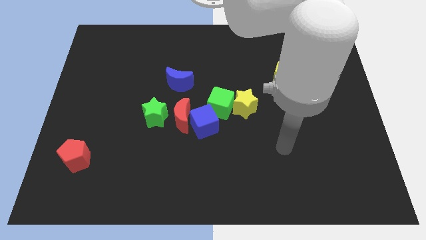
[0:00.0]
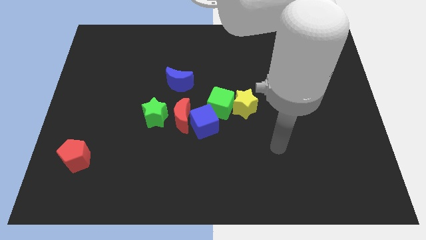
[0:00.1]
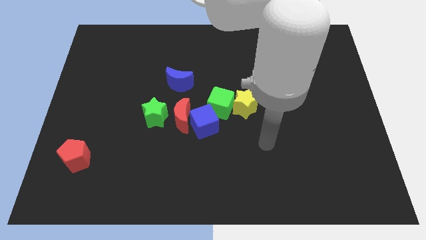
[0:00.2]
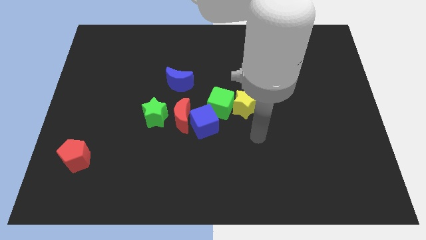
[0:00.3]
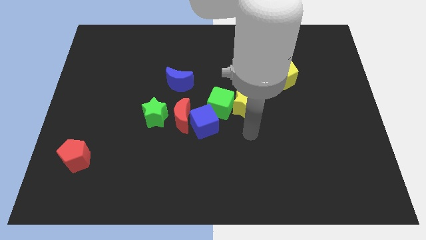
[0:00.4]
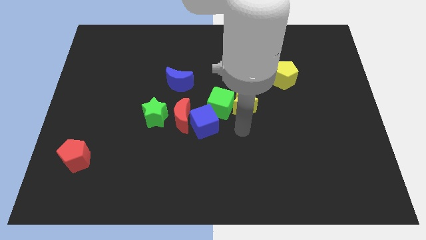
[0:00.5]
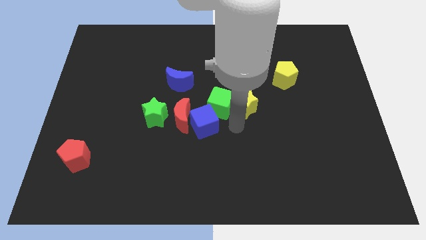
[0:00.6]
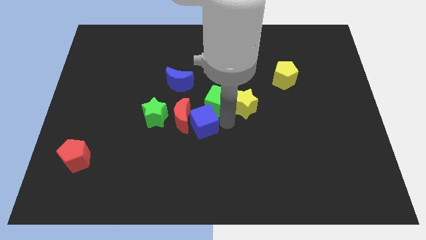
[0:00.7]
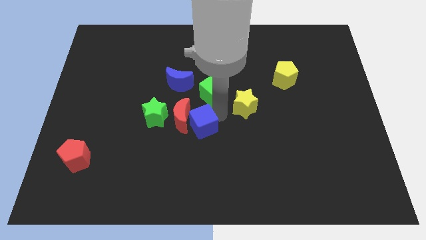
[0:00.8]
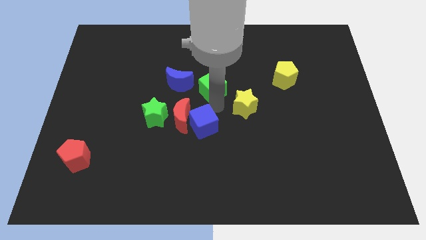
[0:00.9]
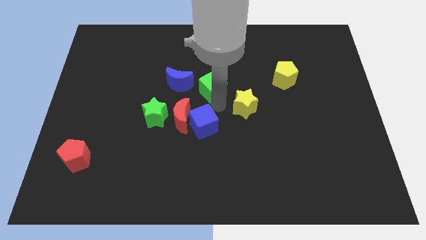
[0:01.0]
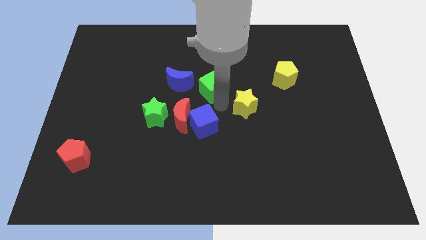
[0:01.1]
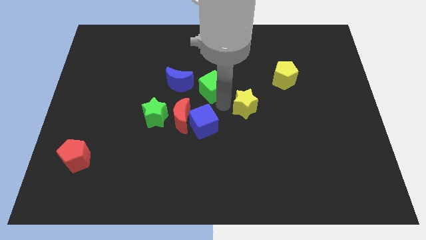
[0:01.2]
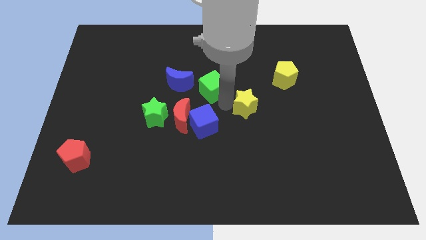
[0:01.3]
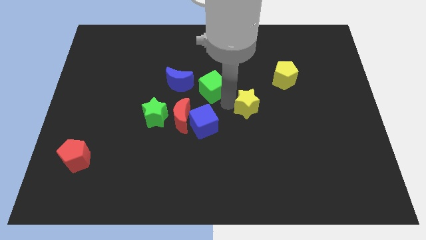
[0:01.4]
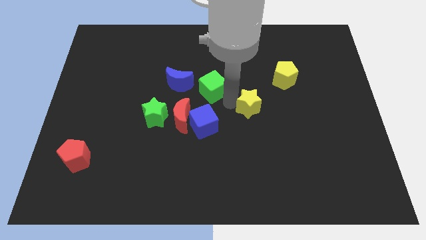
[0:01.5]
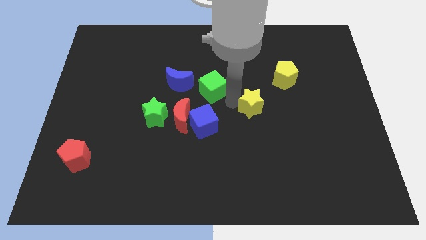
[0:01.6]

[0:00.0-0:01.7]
pull the yellow star apart from the green cube

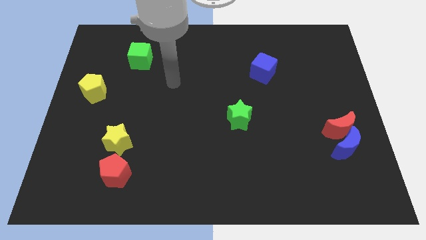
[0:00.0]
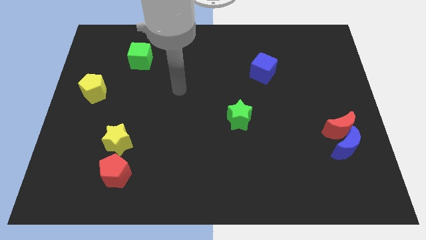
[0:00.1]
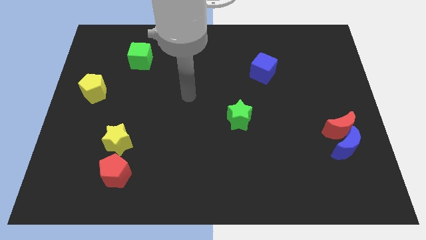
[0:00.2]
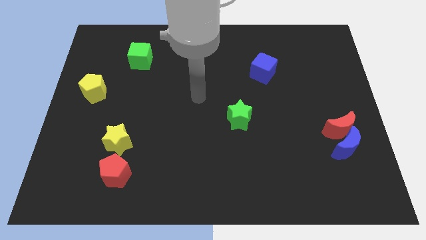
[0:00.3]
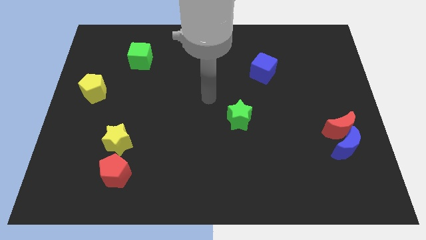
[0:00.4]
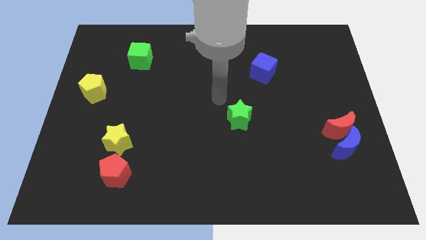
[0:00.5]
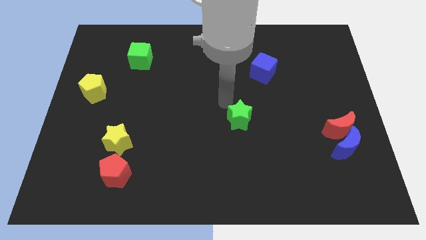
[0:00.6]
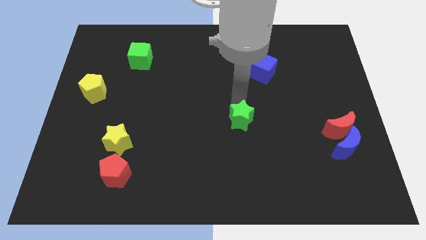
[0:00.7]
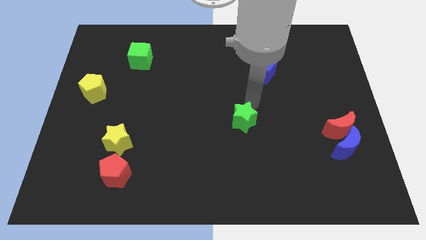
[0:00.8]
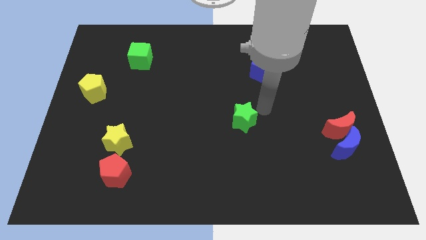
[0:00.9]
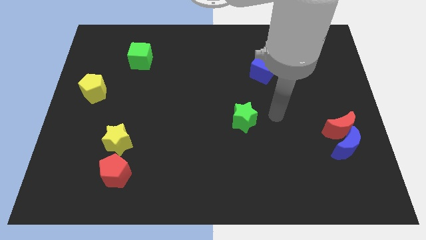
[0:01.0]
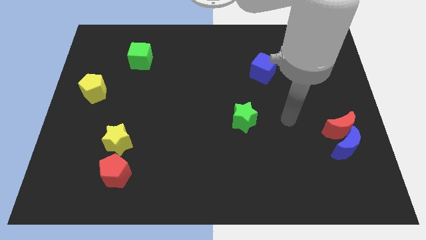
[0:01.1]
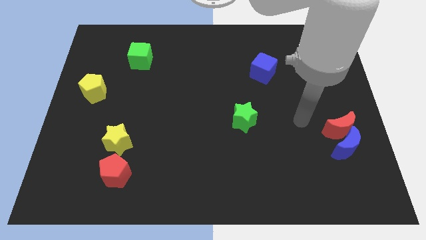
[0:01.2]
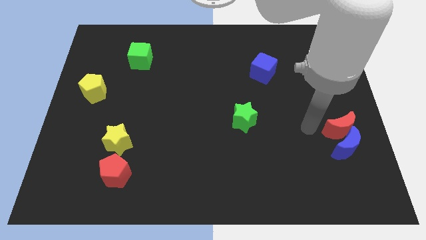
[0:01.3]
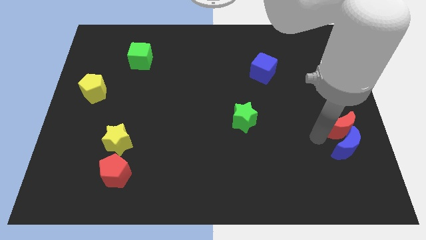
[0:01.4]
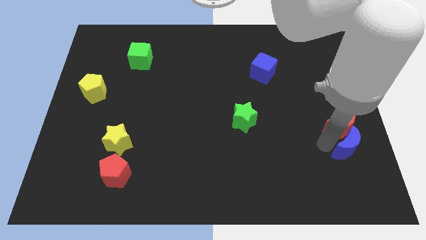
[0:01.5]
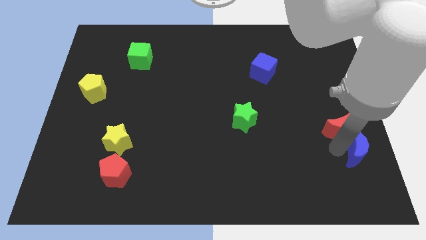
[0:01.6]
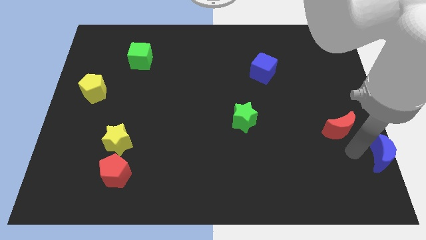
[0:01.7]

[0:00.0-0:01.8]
pull the red moon apart from the blue moon

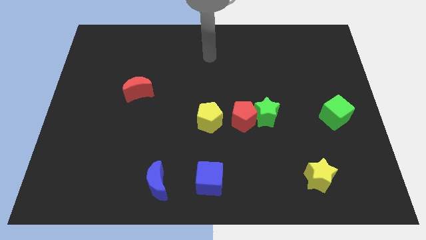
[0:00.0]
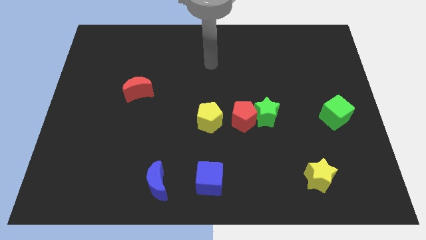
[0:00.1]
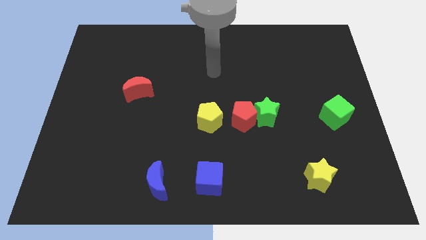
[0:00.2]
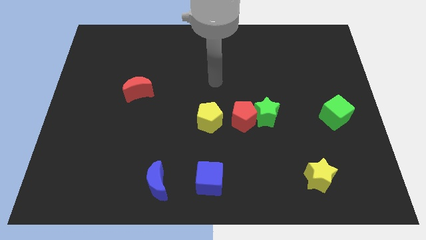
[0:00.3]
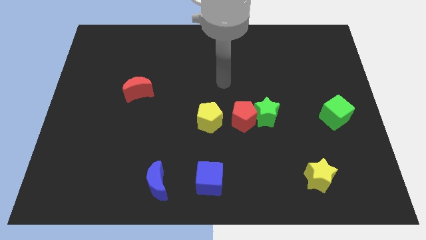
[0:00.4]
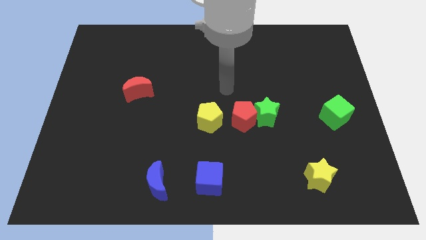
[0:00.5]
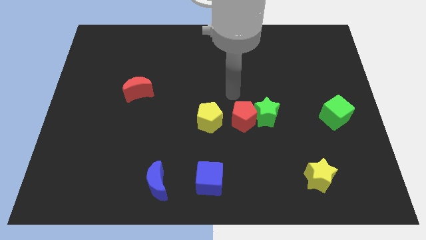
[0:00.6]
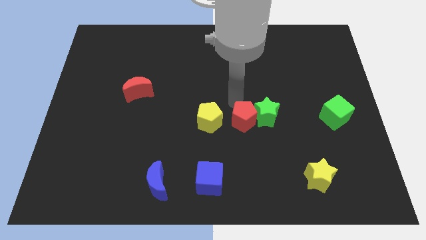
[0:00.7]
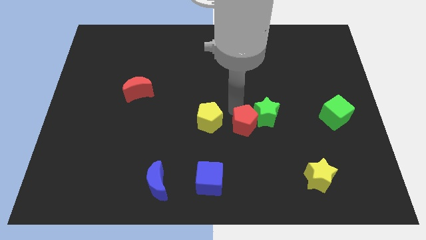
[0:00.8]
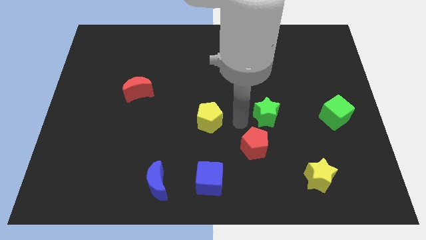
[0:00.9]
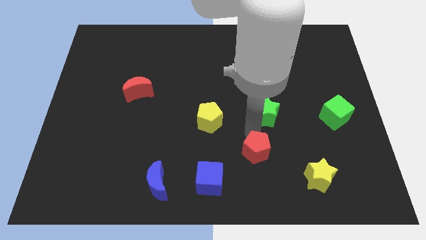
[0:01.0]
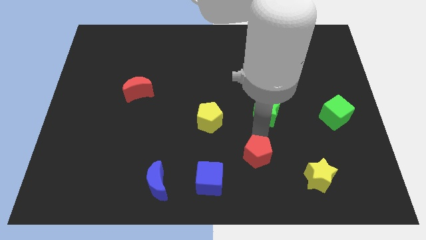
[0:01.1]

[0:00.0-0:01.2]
move the green star away from the red pentagon

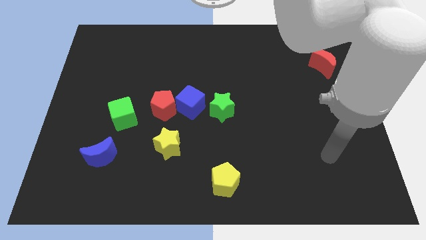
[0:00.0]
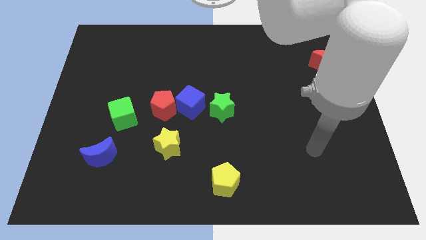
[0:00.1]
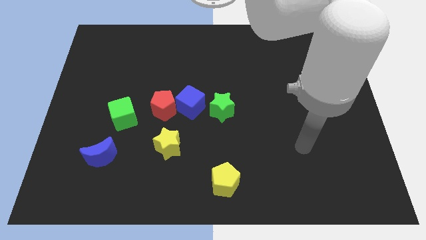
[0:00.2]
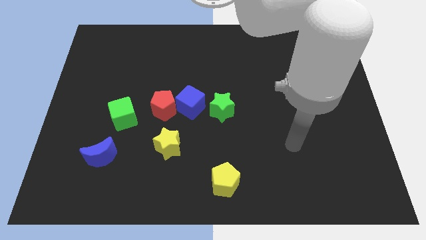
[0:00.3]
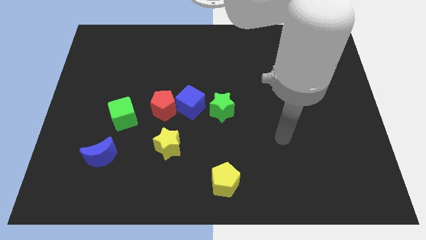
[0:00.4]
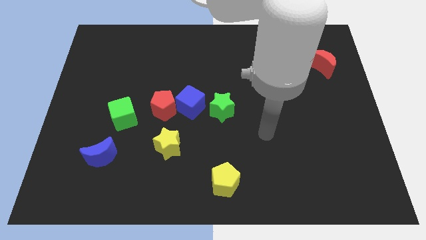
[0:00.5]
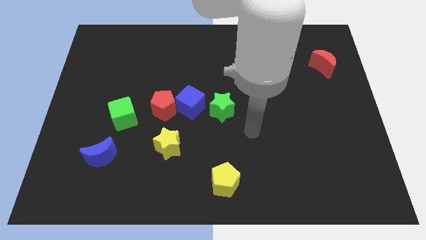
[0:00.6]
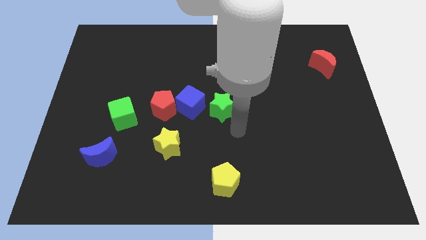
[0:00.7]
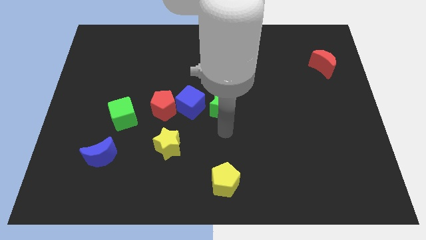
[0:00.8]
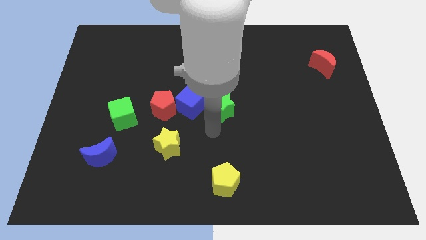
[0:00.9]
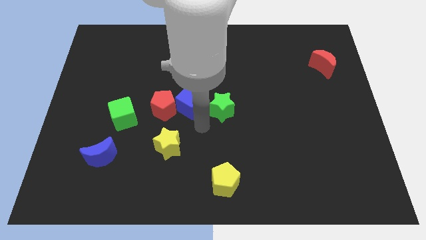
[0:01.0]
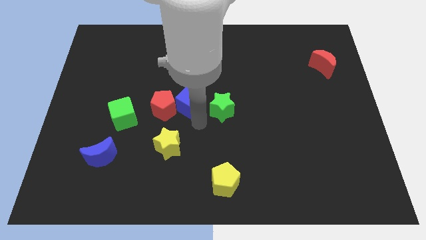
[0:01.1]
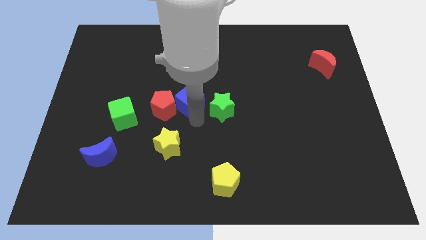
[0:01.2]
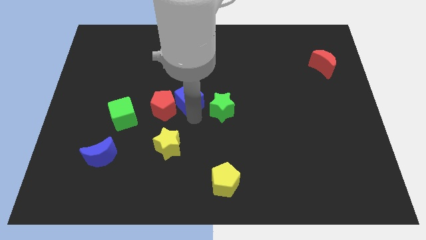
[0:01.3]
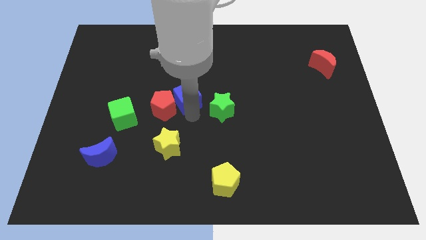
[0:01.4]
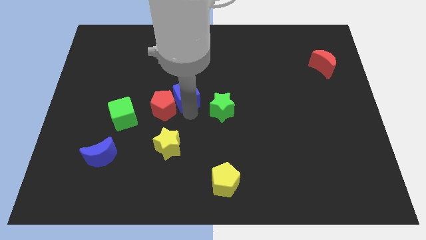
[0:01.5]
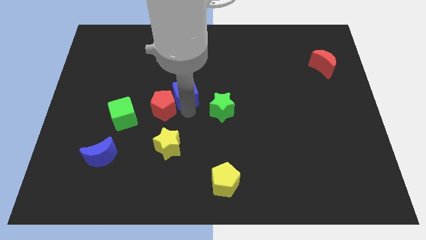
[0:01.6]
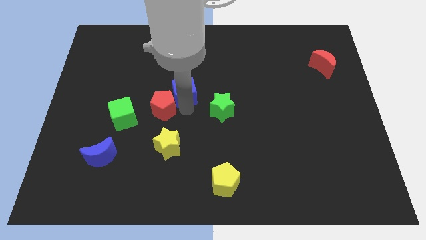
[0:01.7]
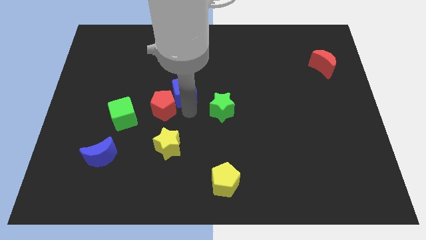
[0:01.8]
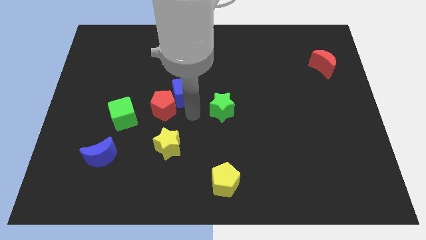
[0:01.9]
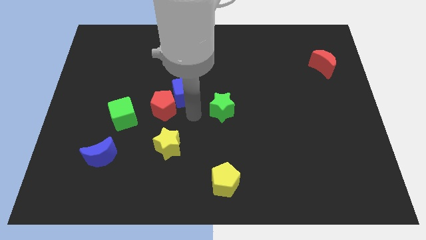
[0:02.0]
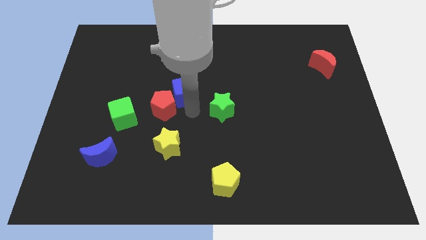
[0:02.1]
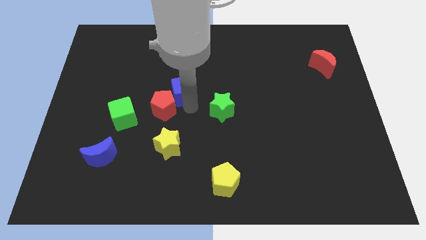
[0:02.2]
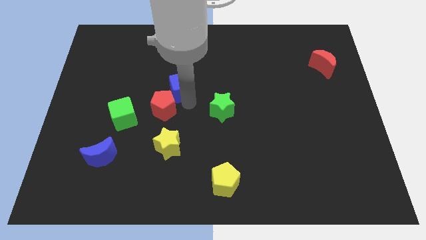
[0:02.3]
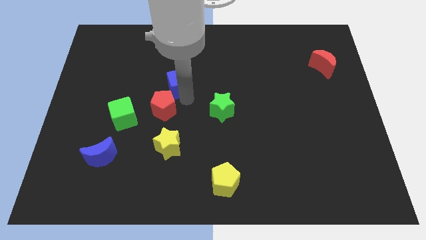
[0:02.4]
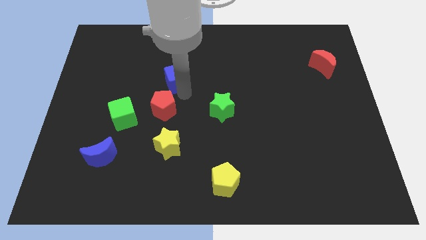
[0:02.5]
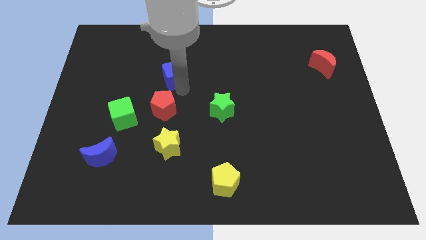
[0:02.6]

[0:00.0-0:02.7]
pull the blue cube apart from the red pentagon and green star

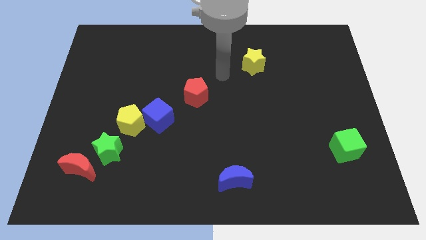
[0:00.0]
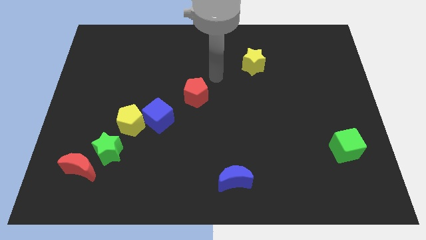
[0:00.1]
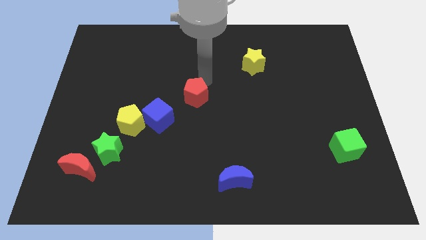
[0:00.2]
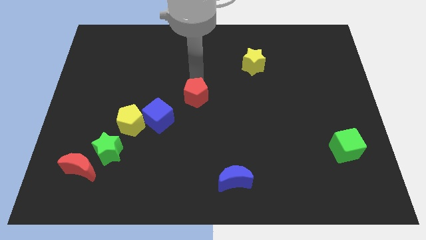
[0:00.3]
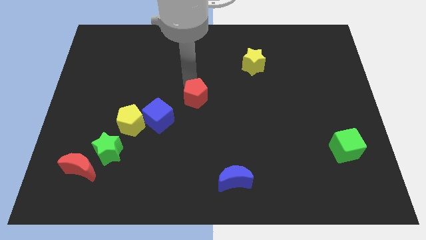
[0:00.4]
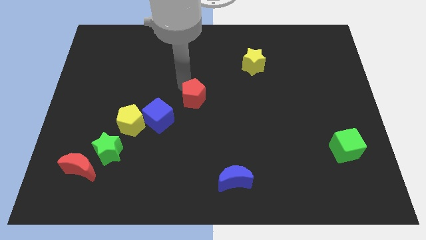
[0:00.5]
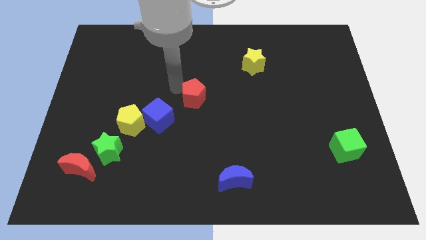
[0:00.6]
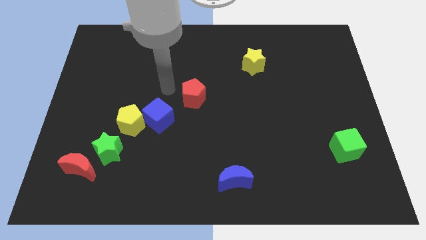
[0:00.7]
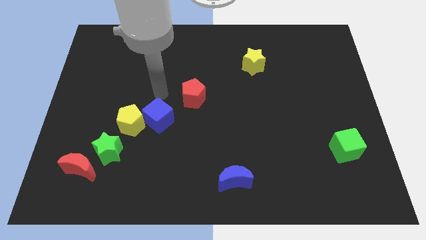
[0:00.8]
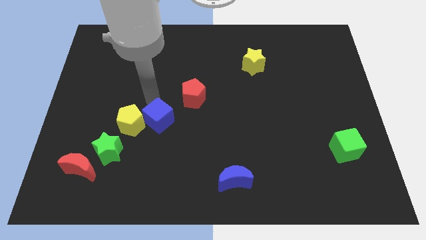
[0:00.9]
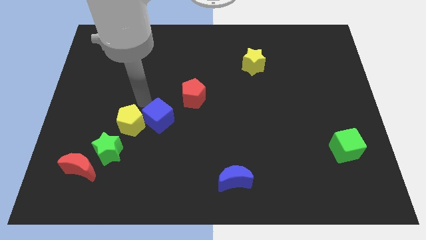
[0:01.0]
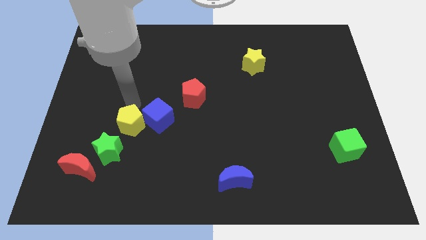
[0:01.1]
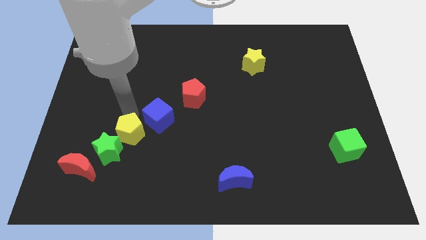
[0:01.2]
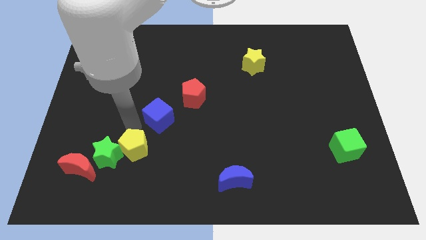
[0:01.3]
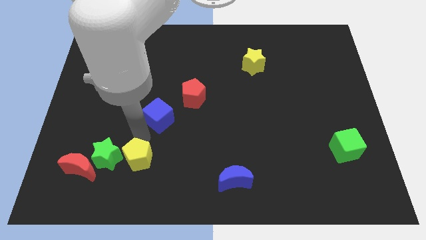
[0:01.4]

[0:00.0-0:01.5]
pull the blue cube apart from the yellow pentagon

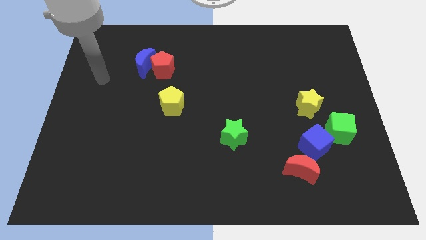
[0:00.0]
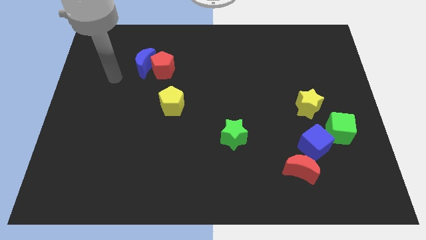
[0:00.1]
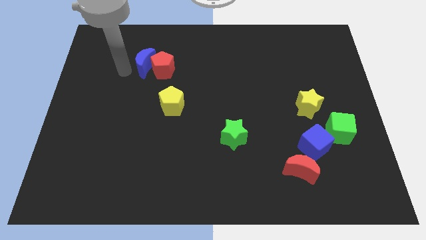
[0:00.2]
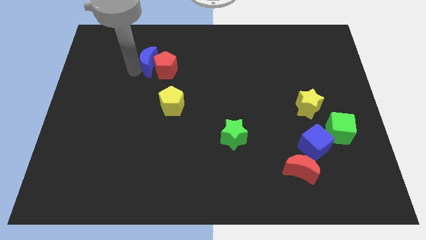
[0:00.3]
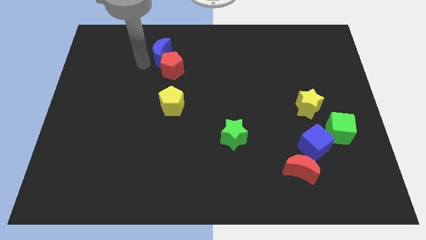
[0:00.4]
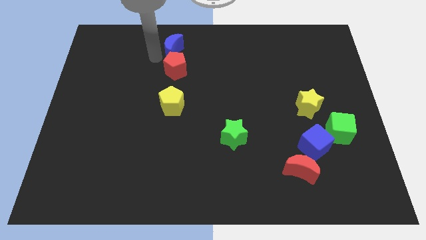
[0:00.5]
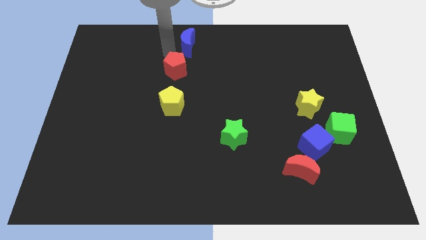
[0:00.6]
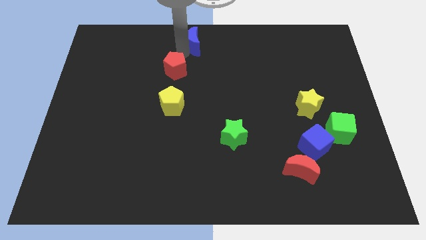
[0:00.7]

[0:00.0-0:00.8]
pull the red pentagon apart from the blue moon
